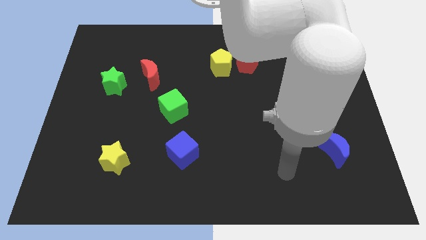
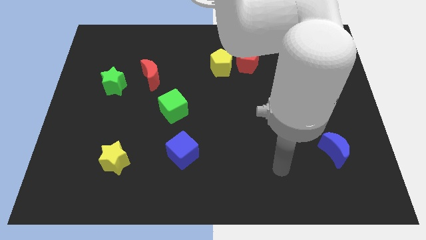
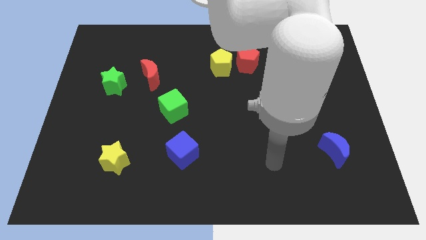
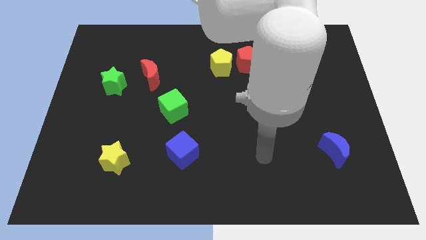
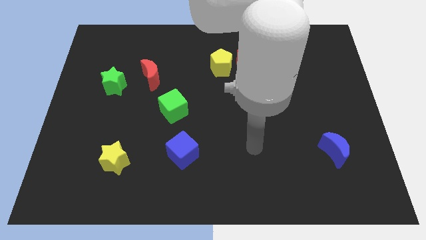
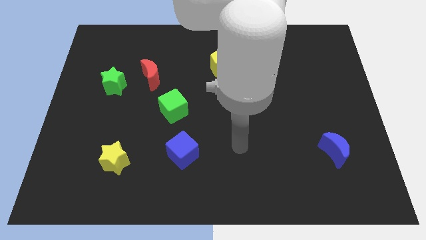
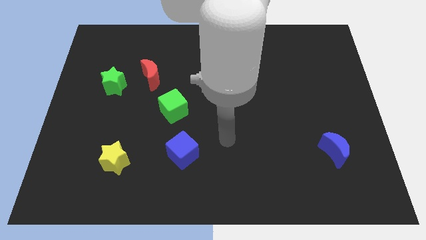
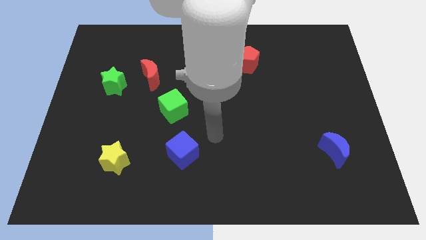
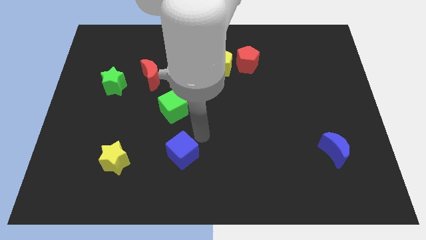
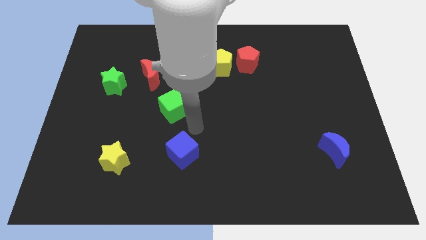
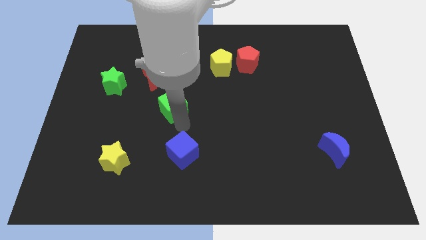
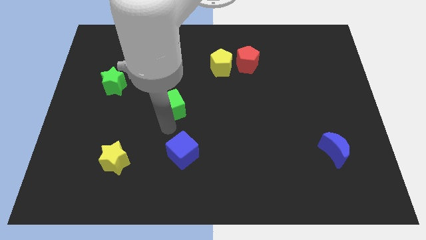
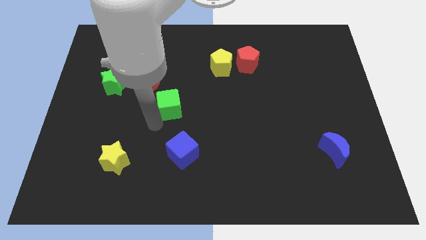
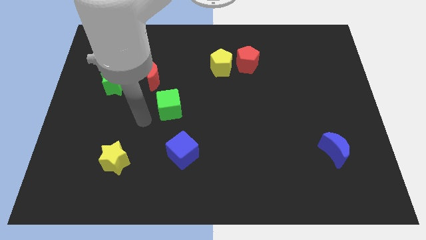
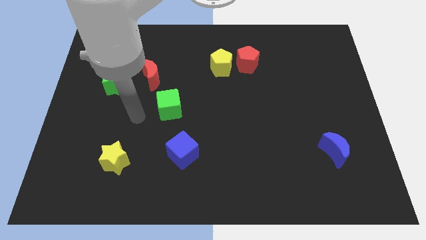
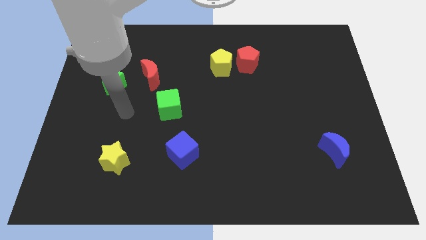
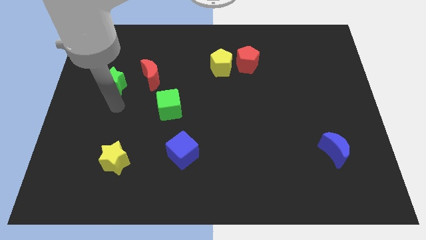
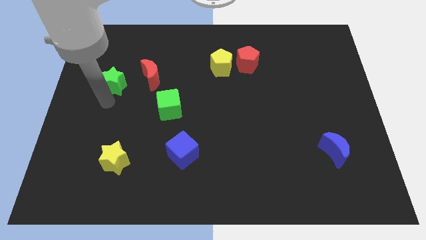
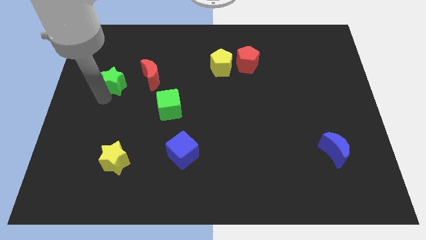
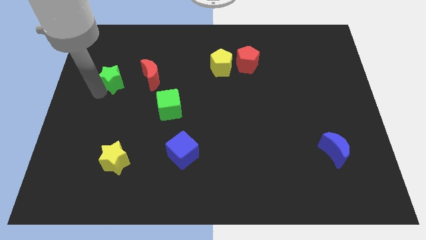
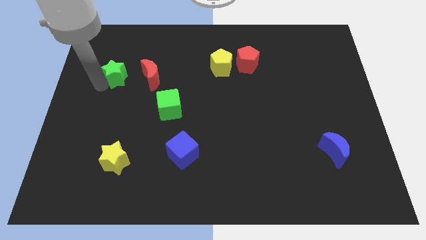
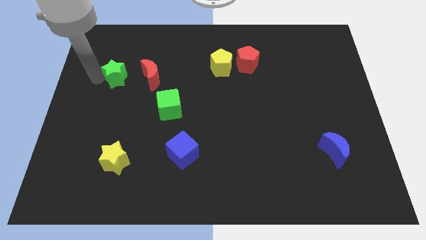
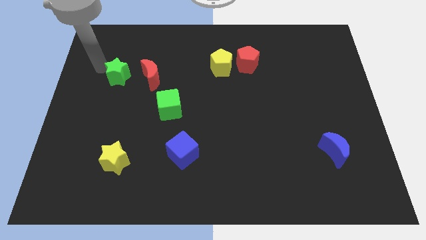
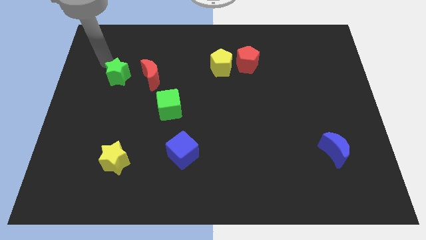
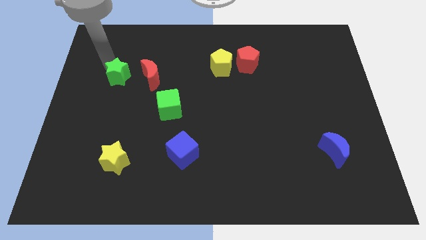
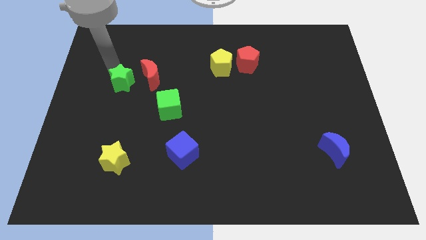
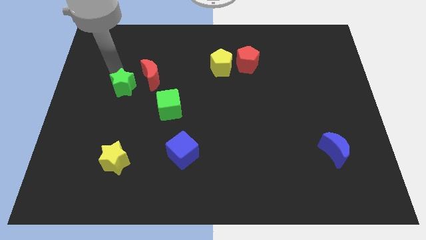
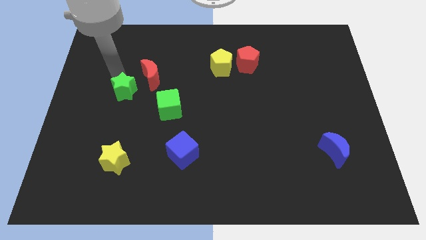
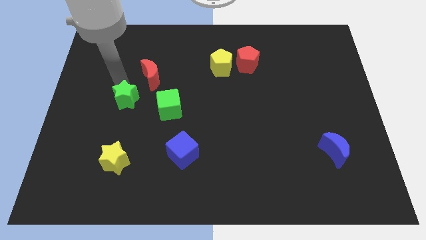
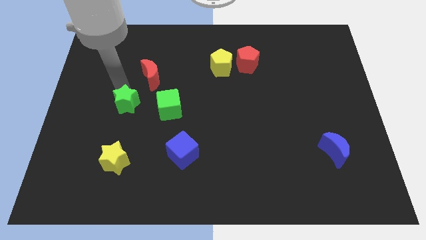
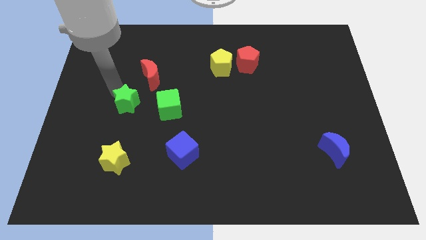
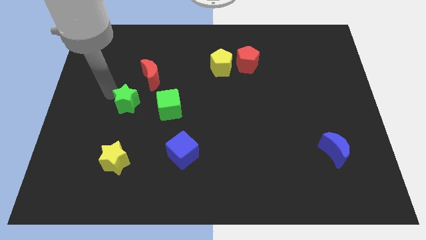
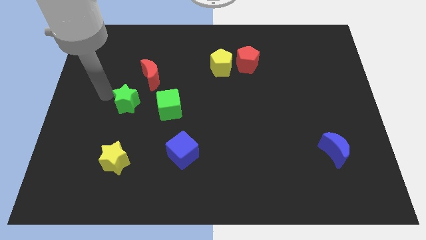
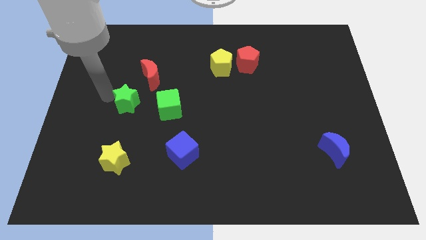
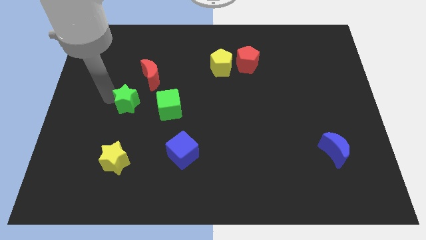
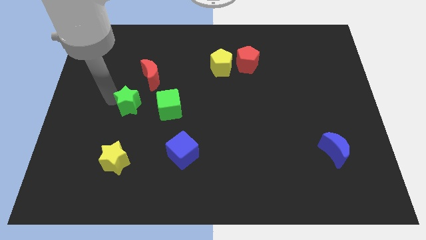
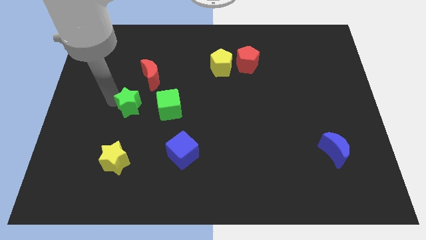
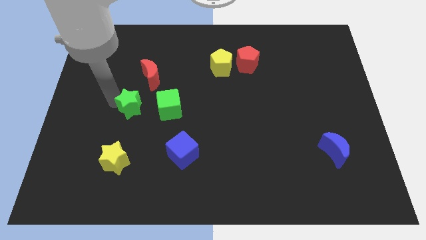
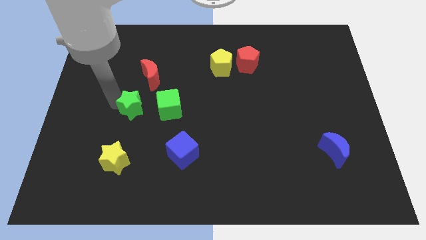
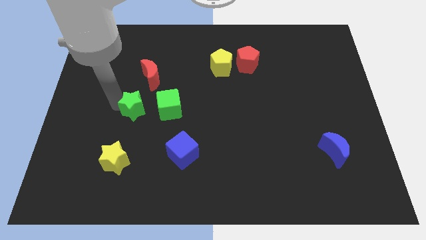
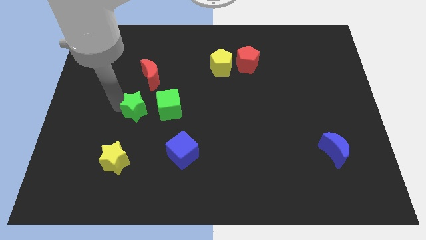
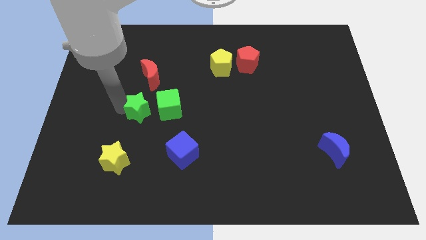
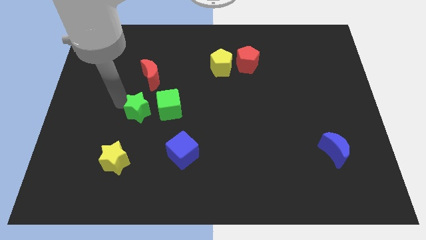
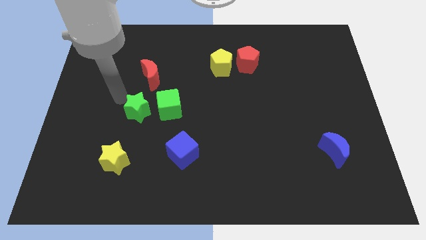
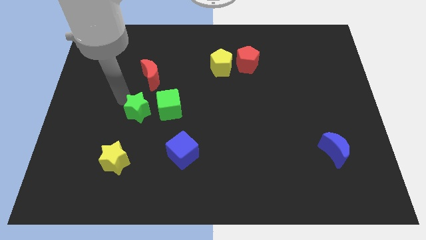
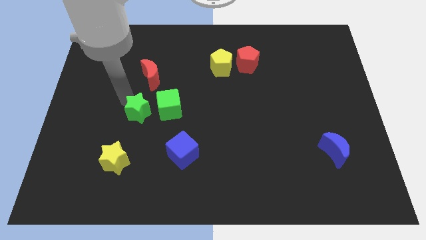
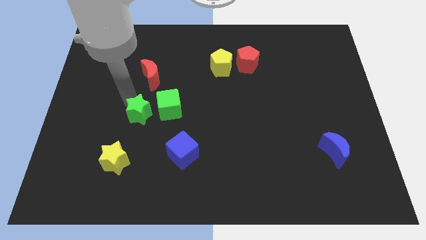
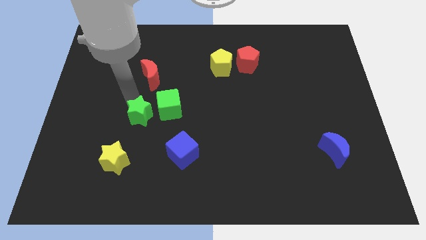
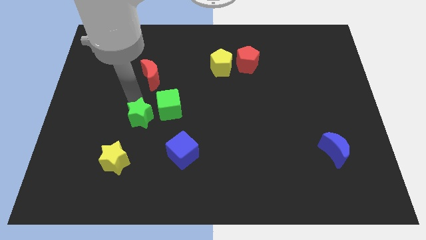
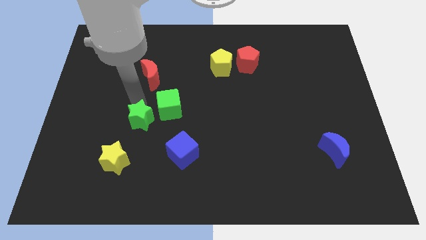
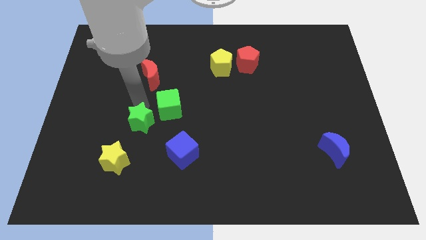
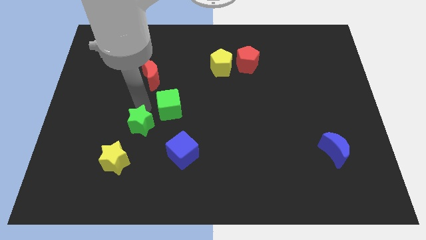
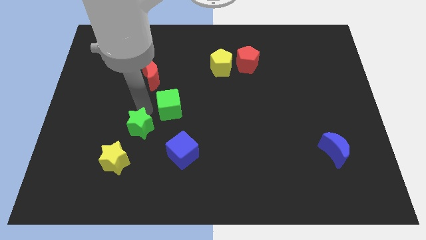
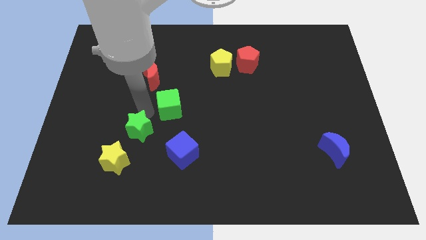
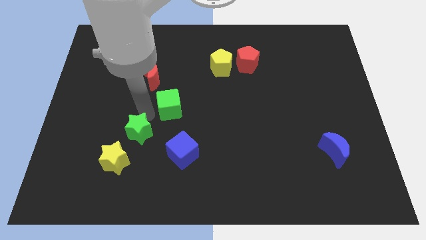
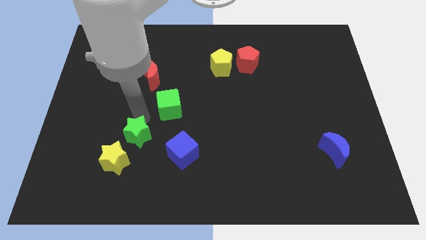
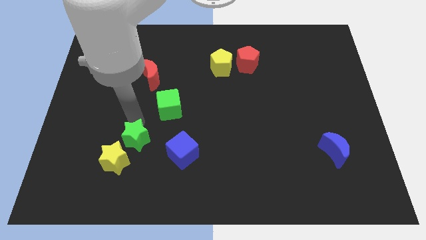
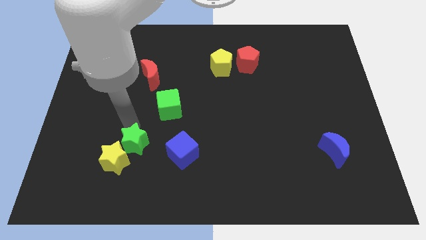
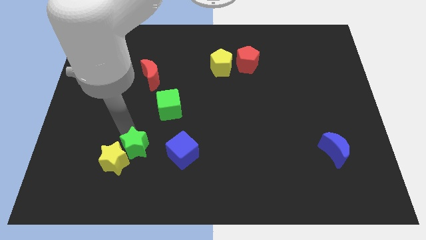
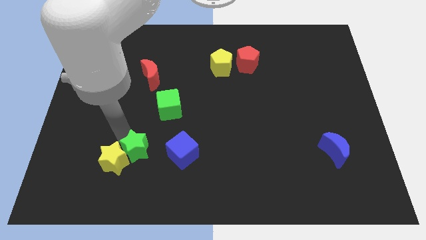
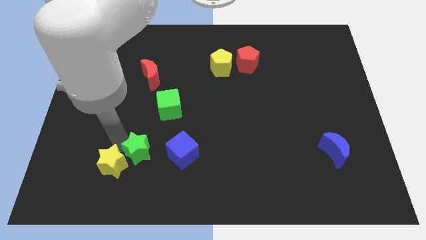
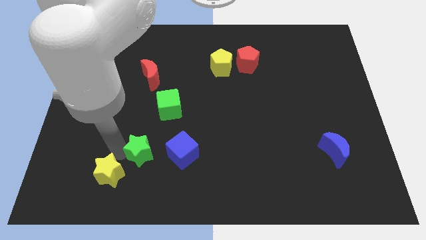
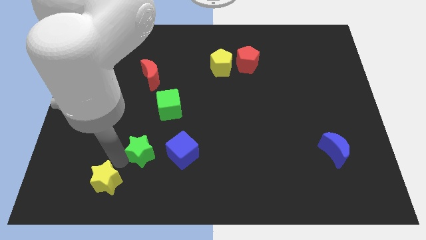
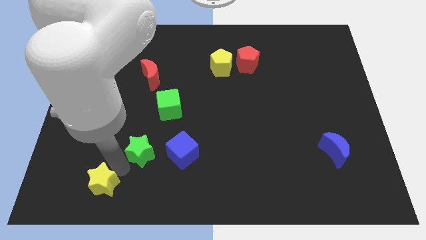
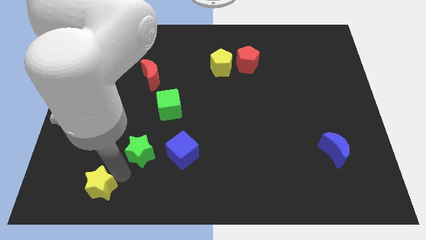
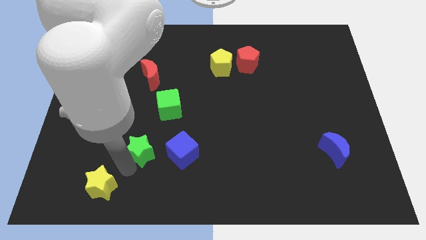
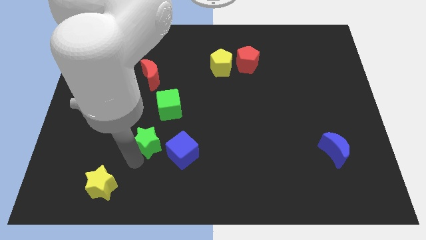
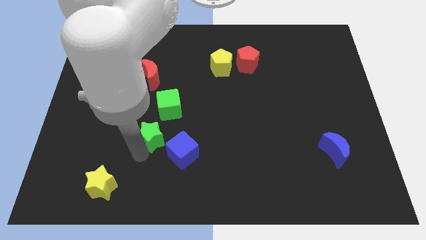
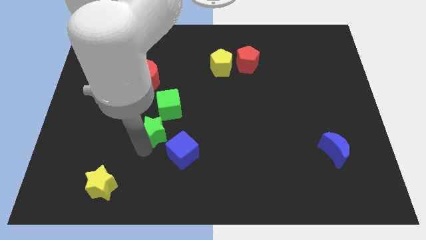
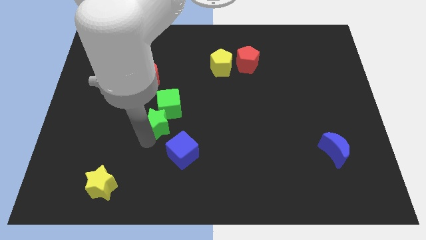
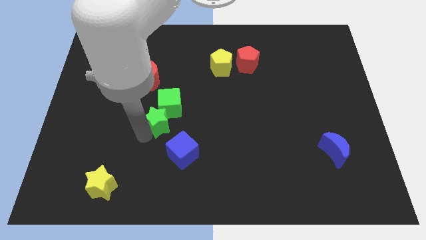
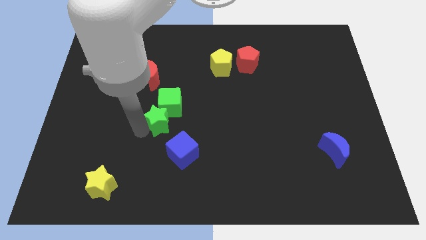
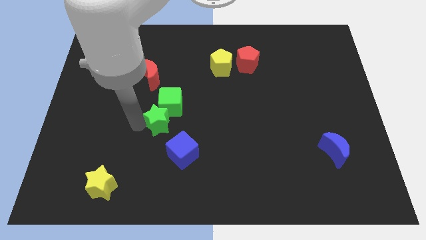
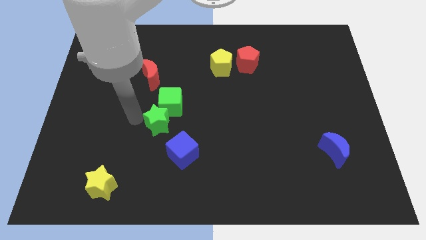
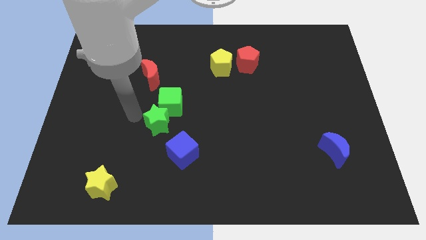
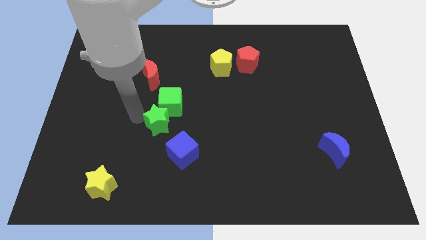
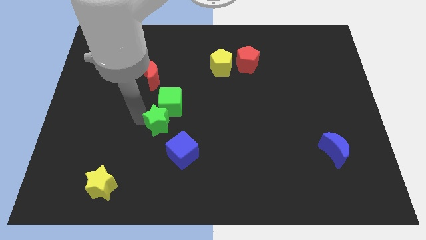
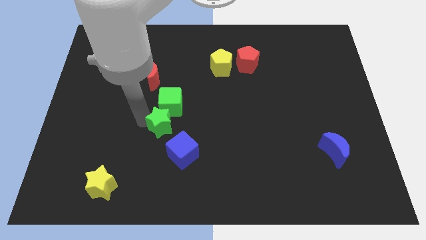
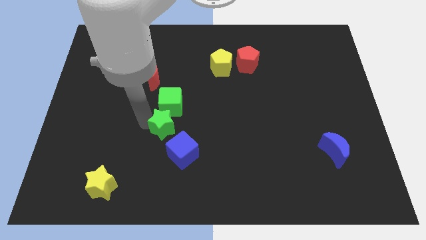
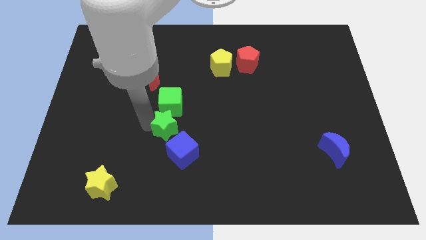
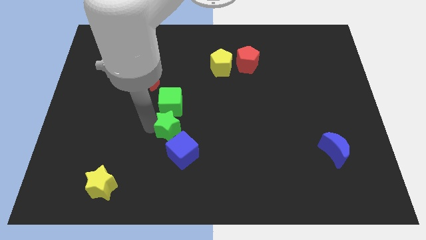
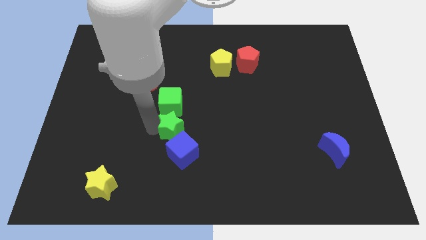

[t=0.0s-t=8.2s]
slide the green star downwards and right
